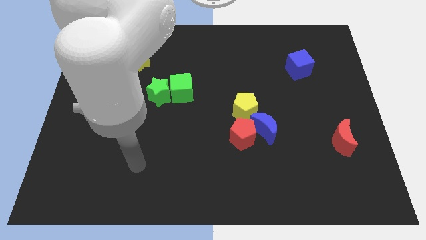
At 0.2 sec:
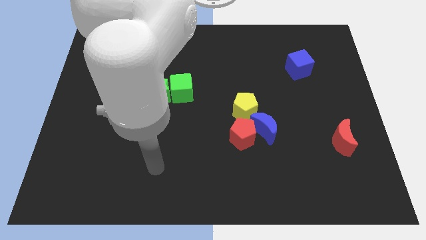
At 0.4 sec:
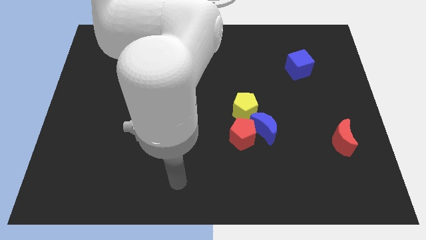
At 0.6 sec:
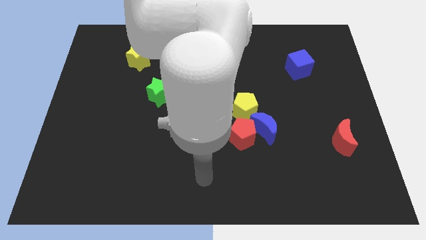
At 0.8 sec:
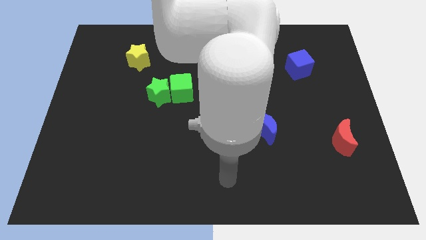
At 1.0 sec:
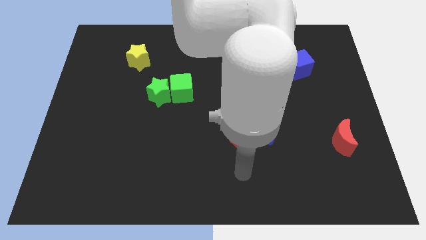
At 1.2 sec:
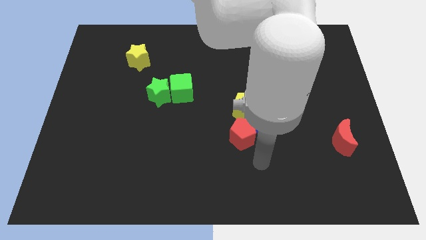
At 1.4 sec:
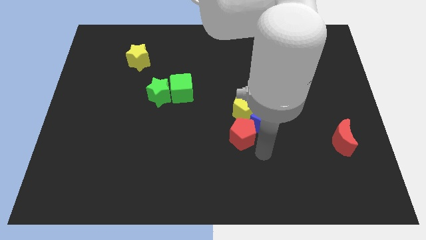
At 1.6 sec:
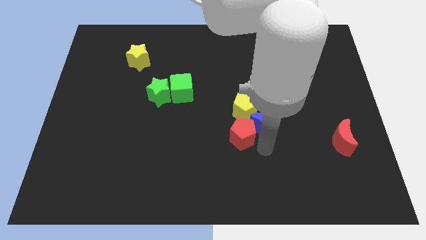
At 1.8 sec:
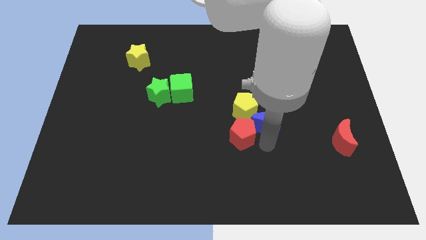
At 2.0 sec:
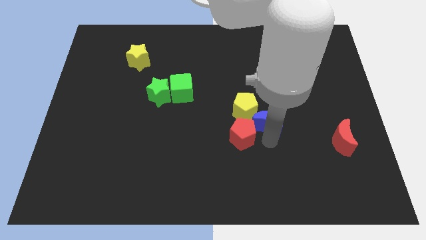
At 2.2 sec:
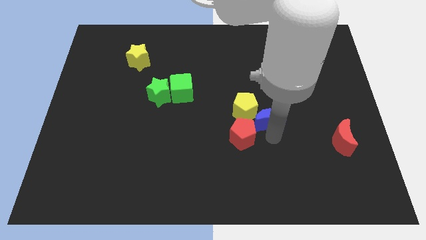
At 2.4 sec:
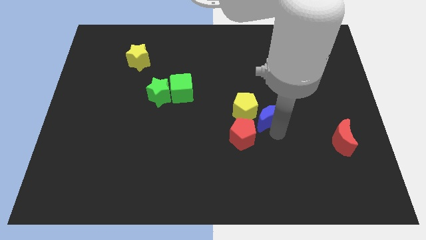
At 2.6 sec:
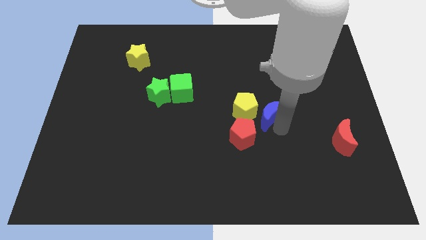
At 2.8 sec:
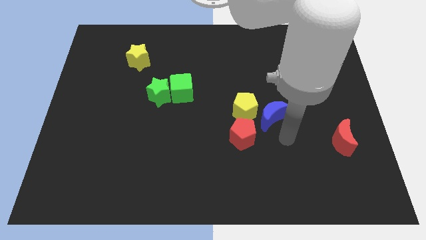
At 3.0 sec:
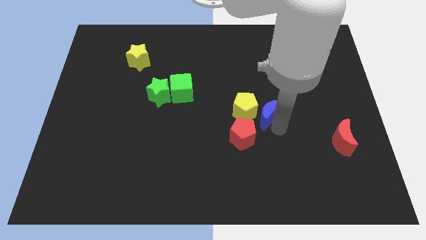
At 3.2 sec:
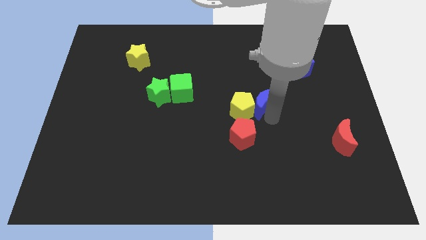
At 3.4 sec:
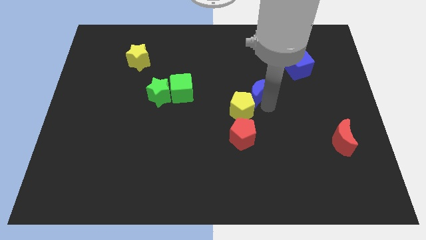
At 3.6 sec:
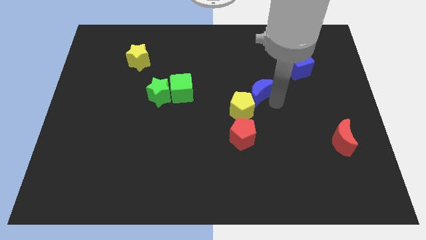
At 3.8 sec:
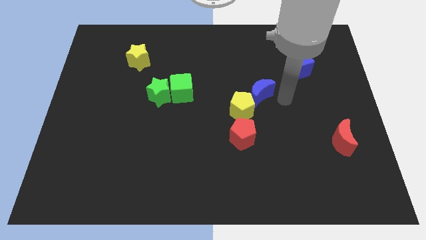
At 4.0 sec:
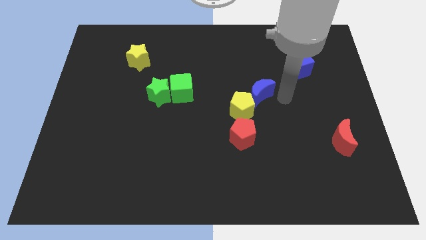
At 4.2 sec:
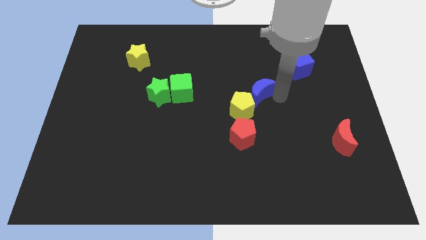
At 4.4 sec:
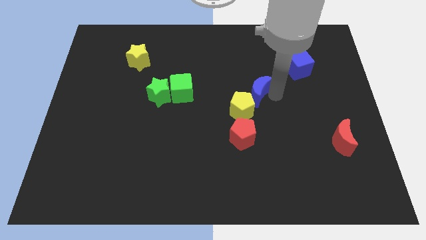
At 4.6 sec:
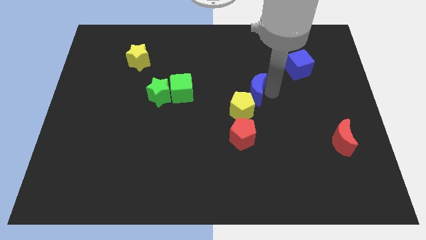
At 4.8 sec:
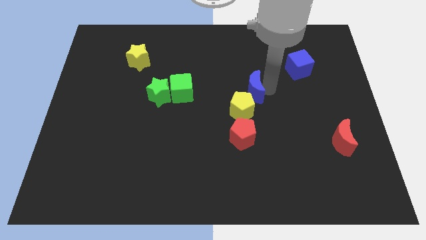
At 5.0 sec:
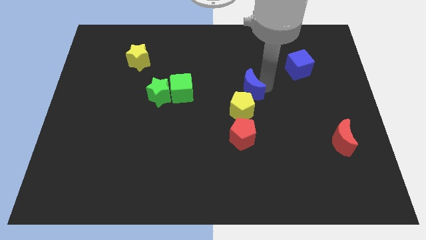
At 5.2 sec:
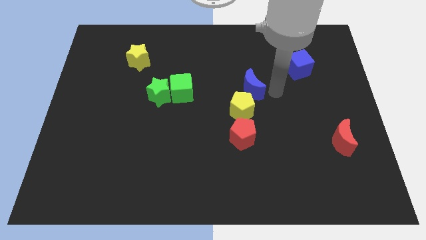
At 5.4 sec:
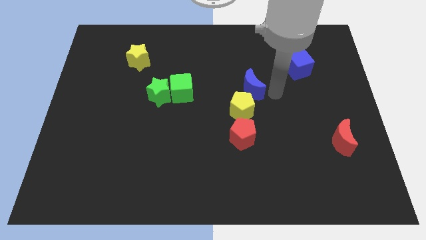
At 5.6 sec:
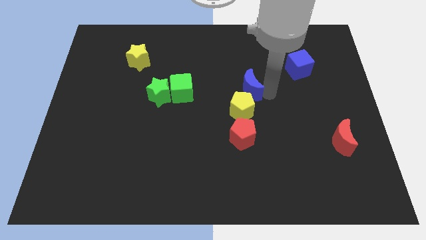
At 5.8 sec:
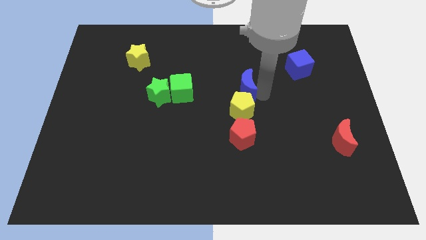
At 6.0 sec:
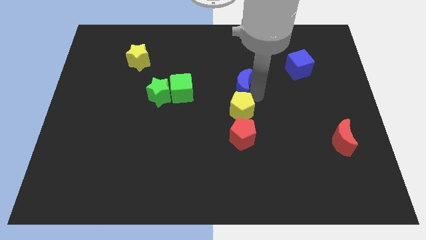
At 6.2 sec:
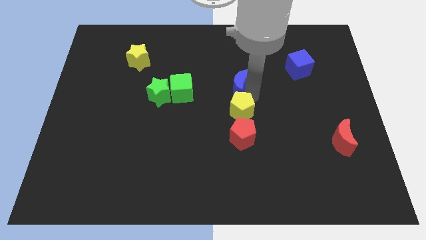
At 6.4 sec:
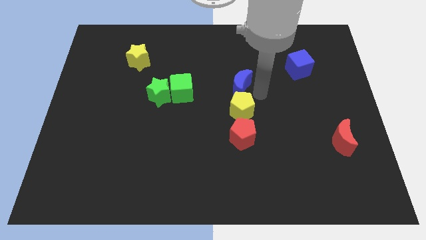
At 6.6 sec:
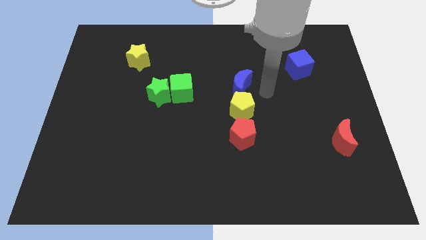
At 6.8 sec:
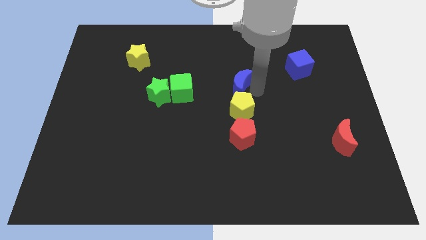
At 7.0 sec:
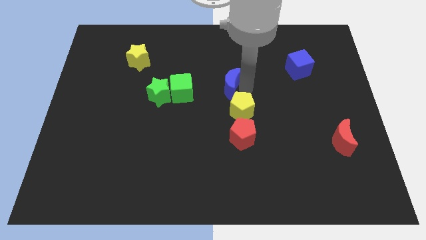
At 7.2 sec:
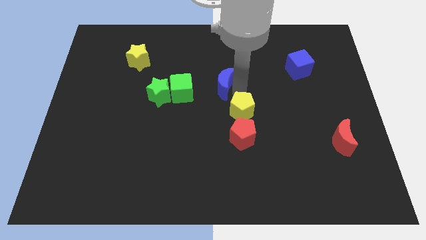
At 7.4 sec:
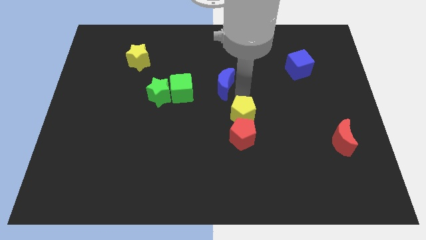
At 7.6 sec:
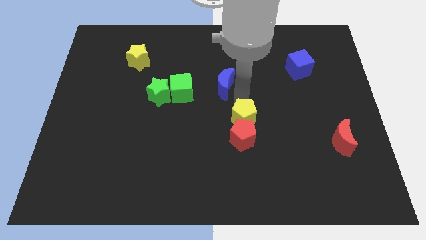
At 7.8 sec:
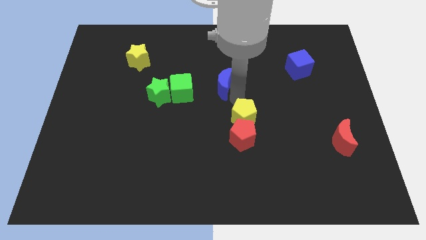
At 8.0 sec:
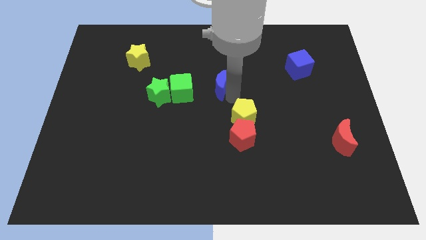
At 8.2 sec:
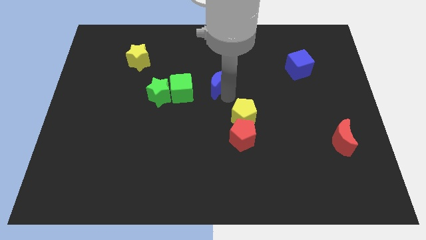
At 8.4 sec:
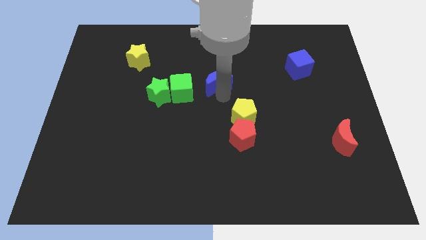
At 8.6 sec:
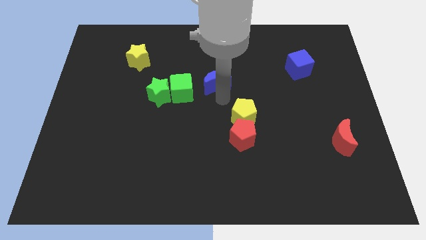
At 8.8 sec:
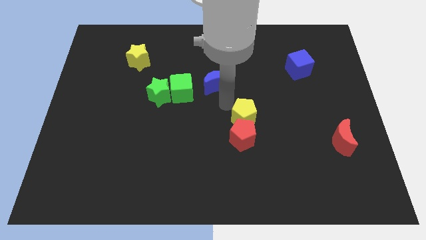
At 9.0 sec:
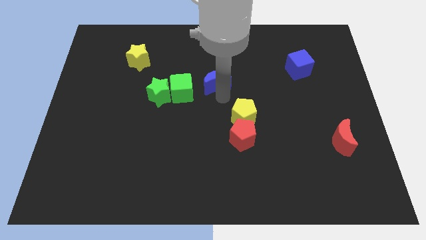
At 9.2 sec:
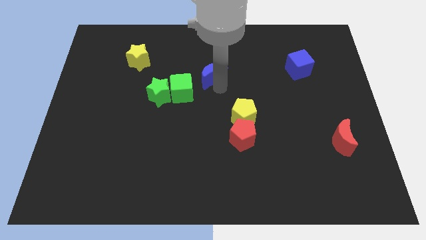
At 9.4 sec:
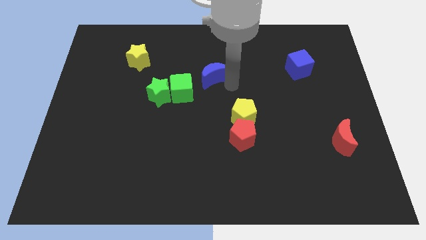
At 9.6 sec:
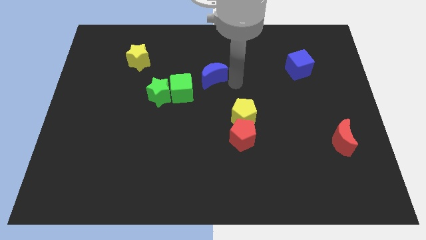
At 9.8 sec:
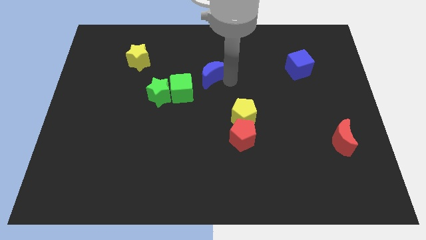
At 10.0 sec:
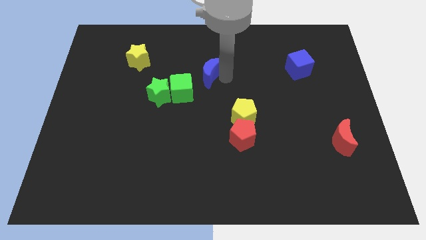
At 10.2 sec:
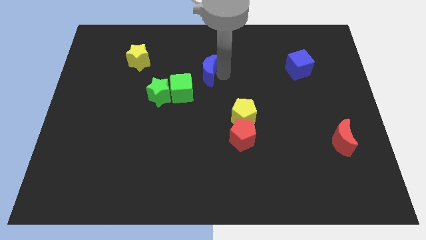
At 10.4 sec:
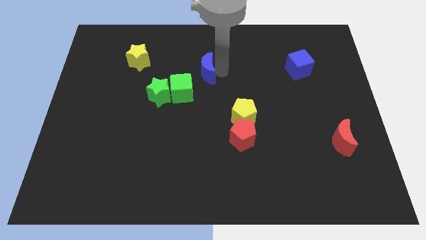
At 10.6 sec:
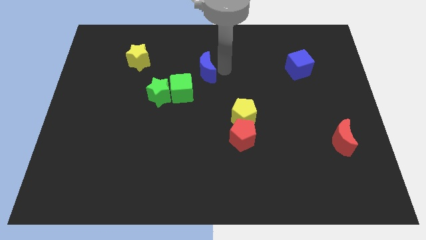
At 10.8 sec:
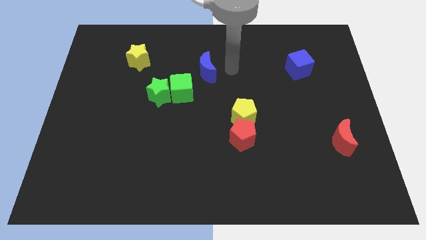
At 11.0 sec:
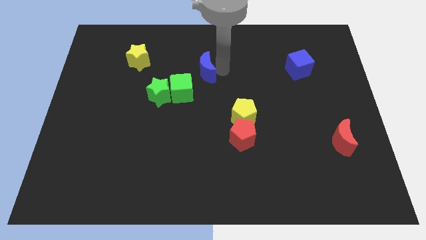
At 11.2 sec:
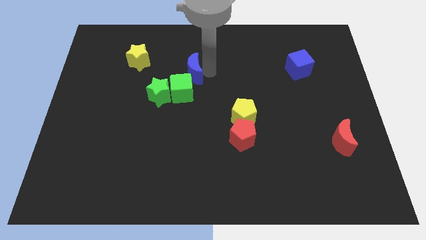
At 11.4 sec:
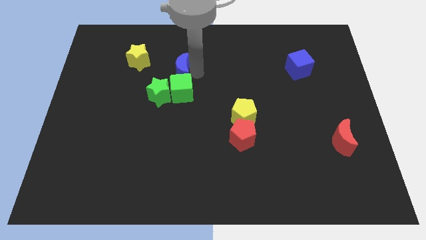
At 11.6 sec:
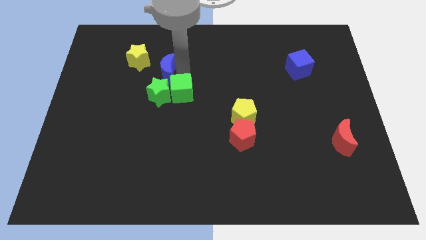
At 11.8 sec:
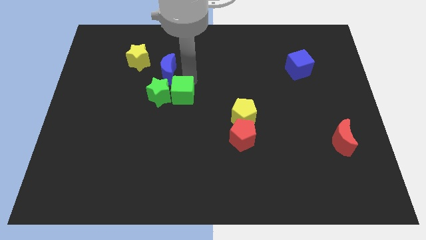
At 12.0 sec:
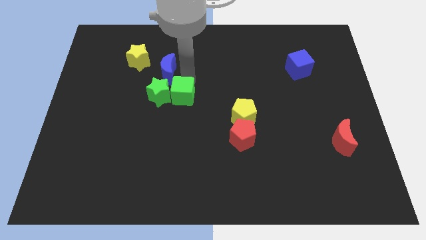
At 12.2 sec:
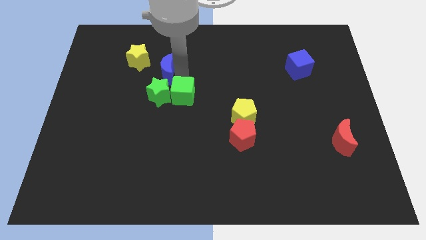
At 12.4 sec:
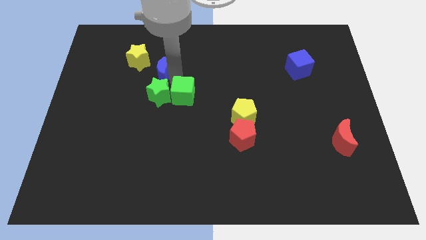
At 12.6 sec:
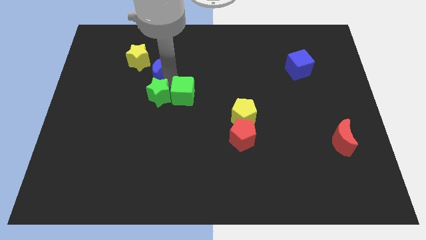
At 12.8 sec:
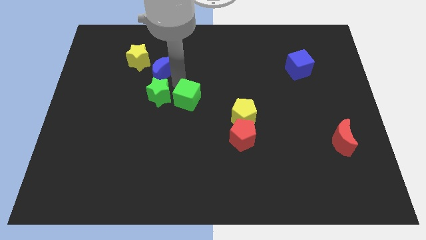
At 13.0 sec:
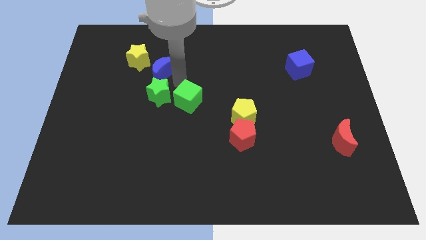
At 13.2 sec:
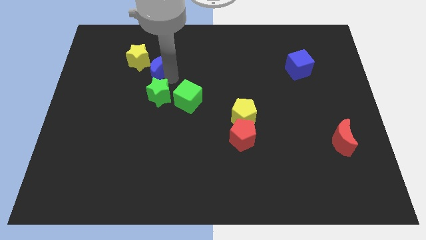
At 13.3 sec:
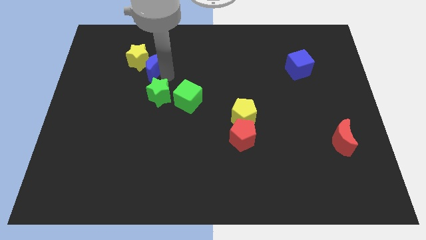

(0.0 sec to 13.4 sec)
put the blue moon towards the yellow star

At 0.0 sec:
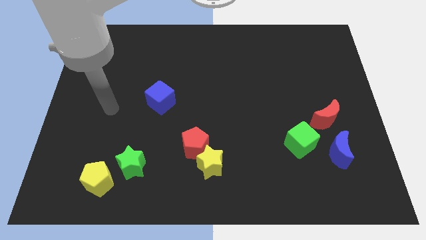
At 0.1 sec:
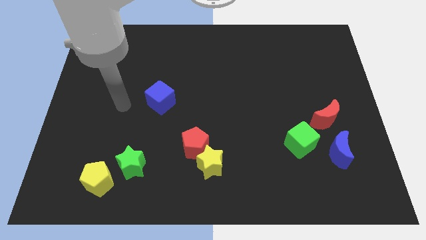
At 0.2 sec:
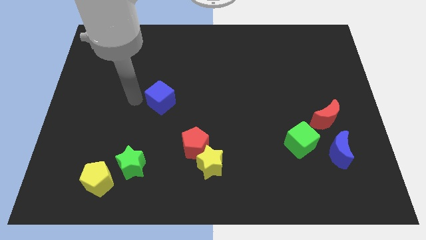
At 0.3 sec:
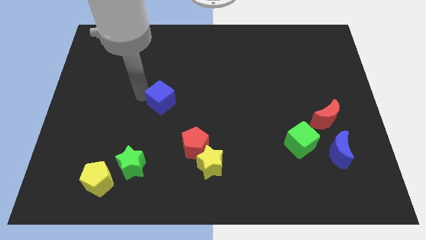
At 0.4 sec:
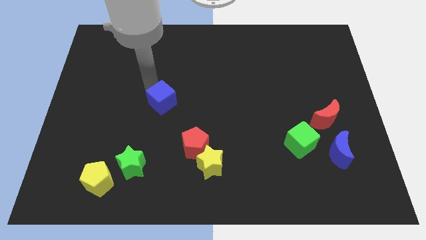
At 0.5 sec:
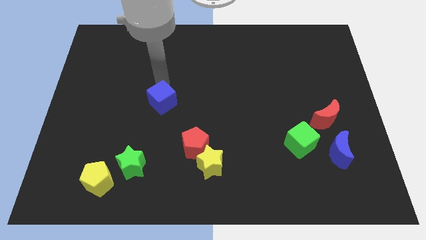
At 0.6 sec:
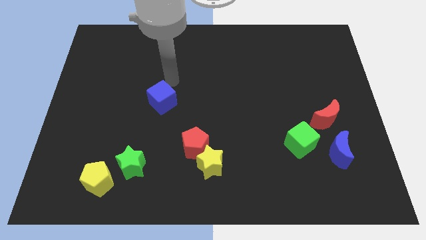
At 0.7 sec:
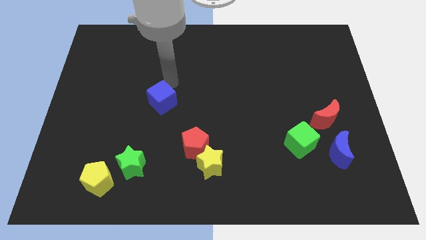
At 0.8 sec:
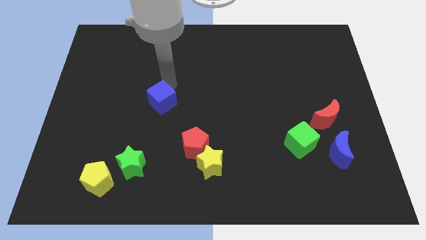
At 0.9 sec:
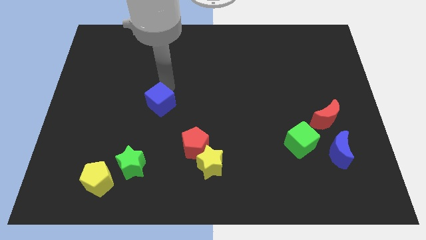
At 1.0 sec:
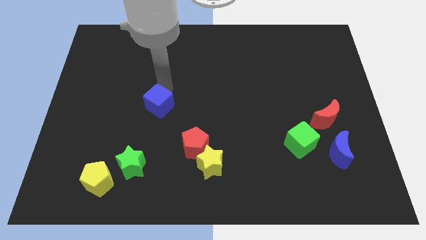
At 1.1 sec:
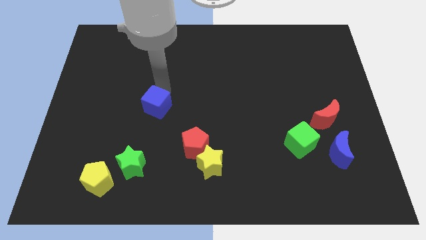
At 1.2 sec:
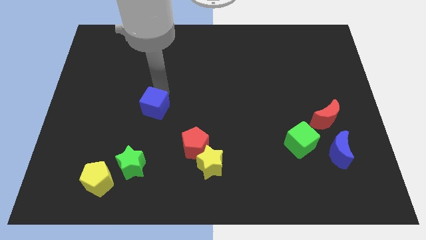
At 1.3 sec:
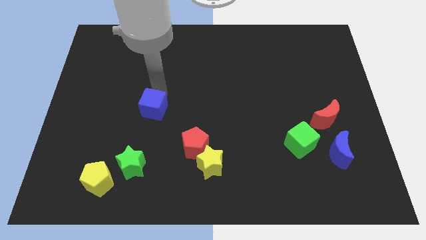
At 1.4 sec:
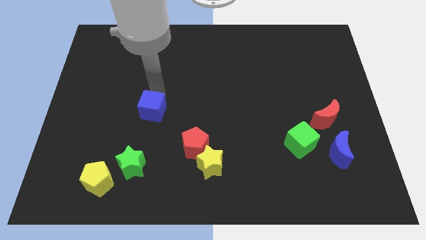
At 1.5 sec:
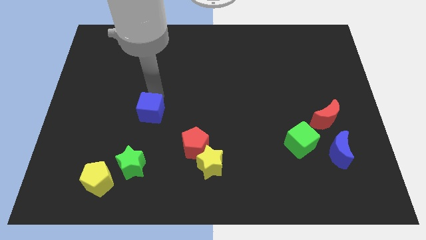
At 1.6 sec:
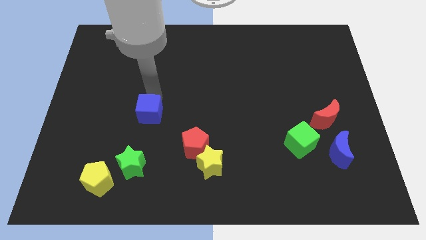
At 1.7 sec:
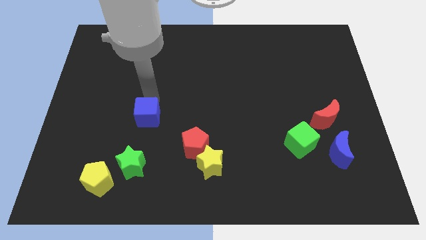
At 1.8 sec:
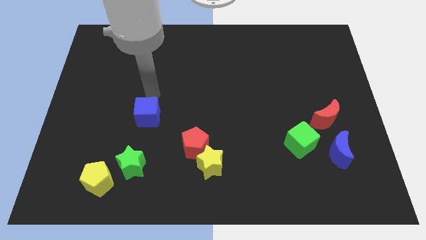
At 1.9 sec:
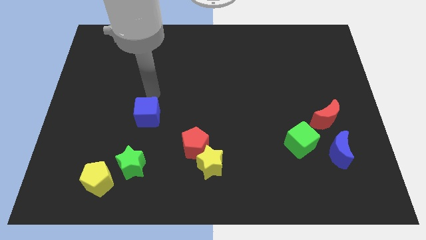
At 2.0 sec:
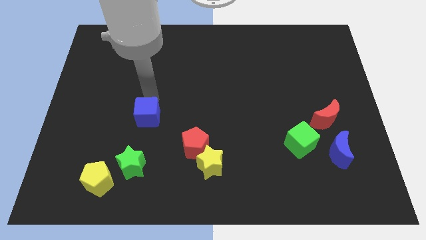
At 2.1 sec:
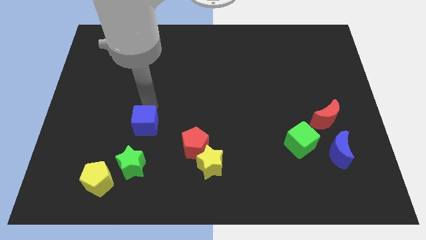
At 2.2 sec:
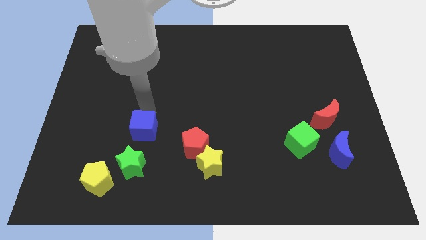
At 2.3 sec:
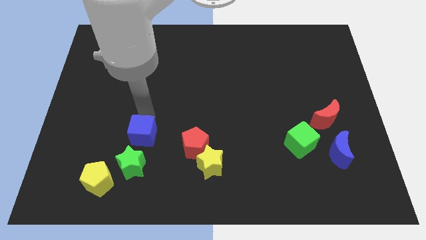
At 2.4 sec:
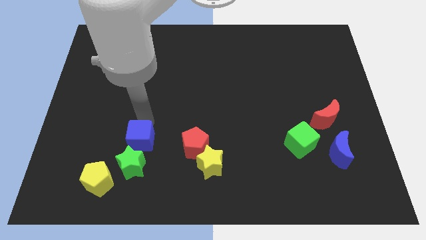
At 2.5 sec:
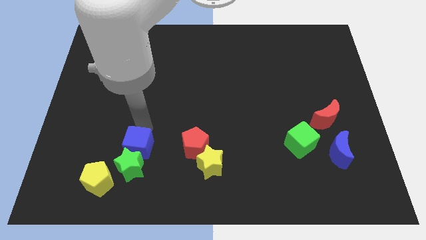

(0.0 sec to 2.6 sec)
put the blue cube towards the green star
